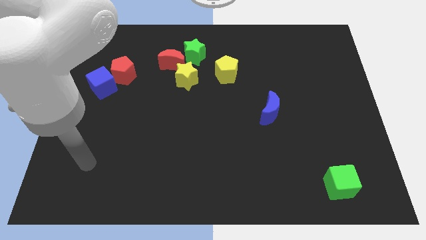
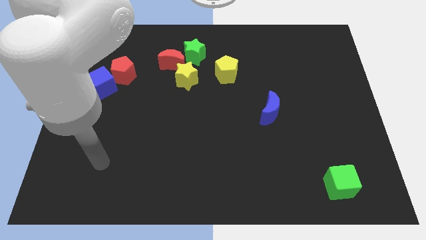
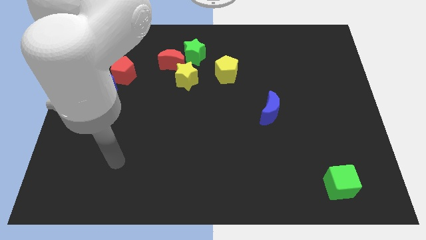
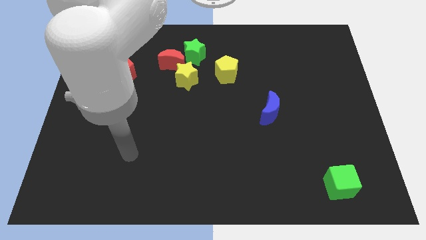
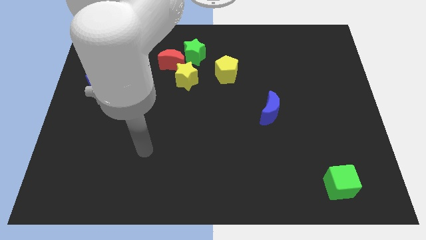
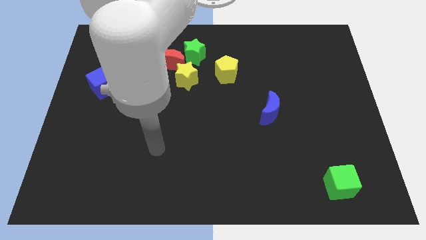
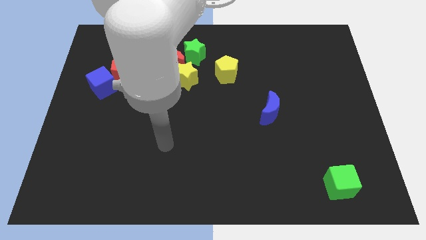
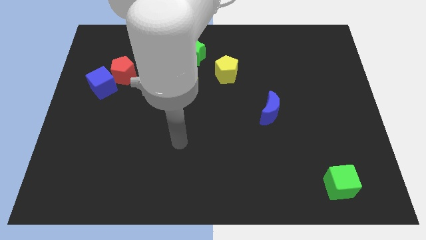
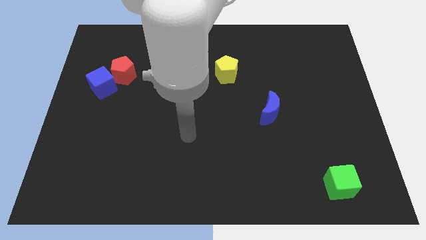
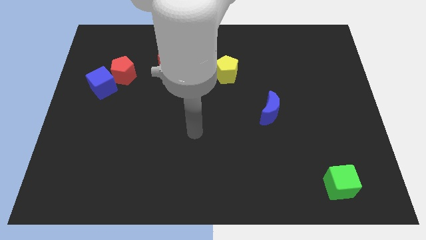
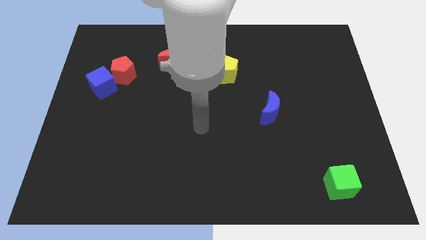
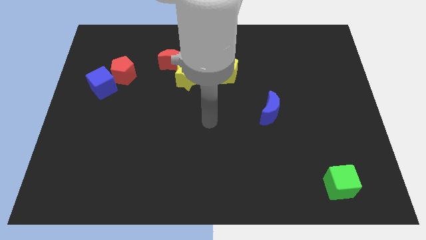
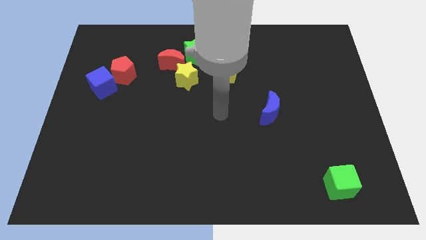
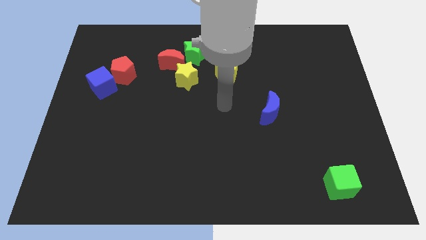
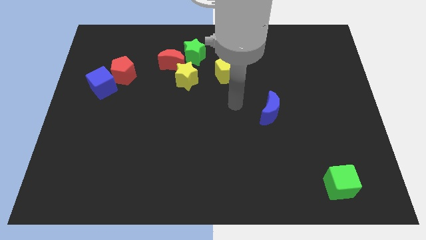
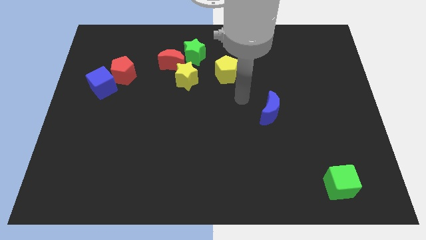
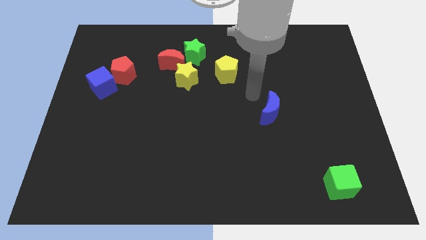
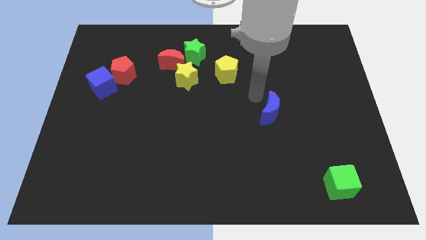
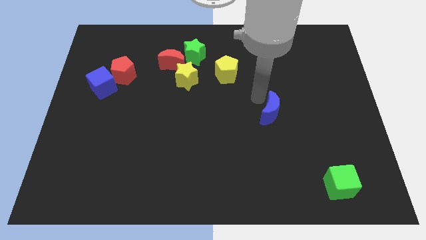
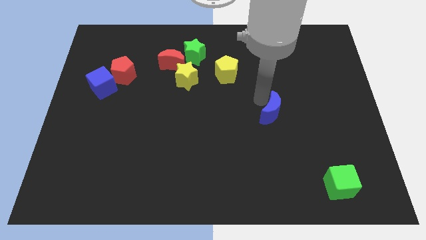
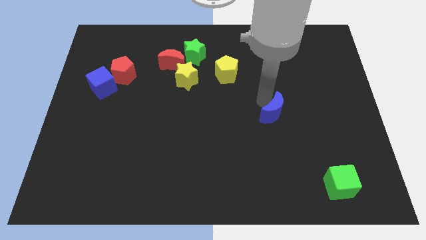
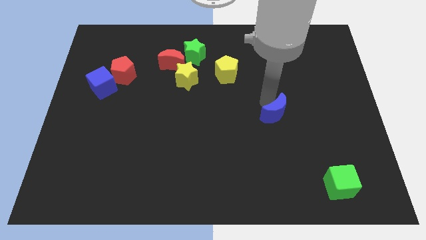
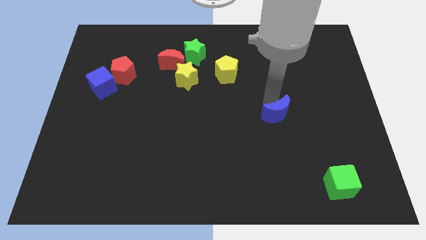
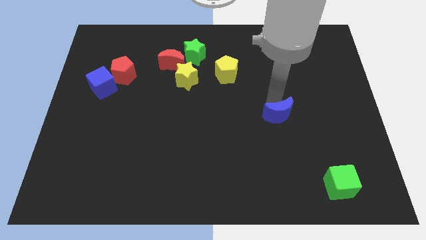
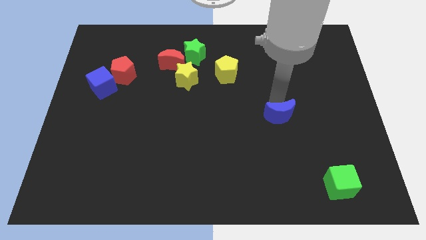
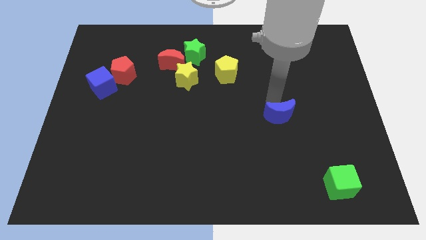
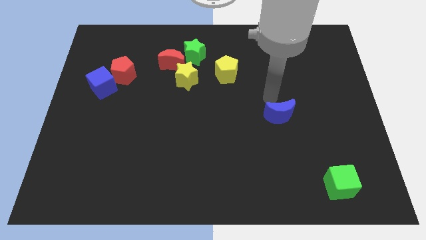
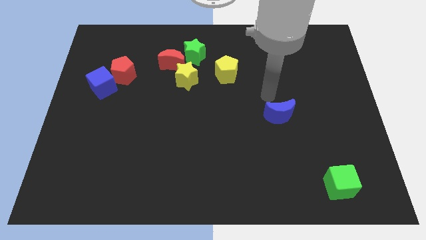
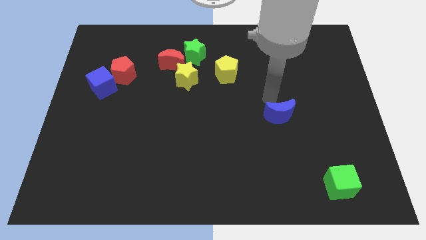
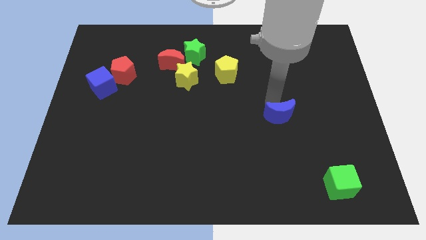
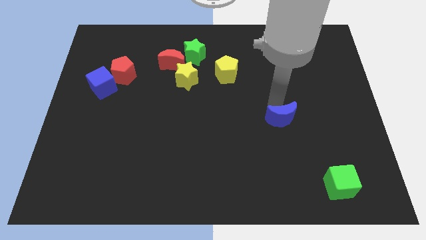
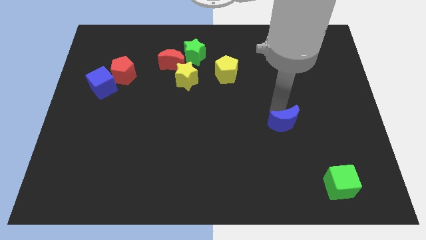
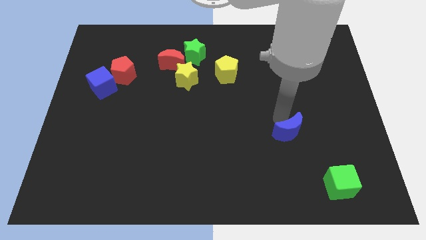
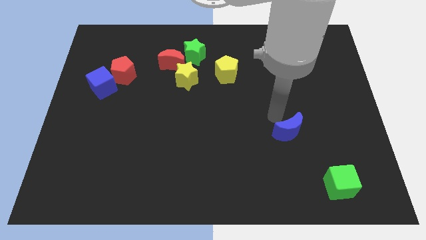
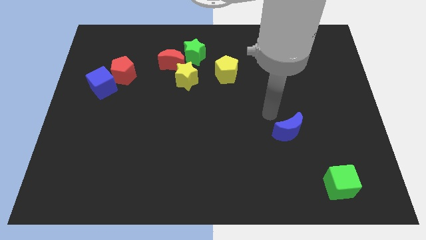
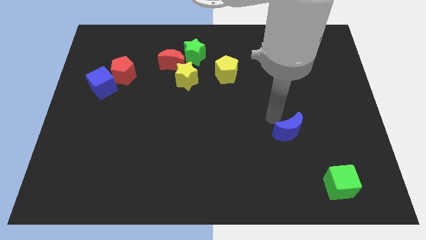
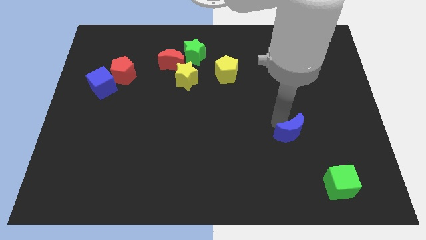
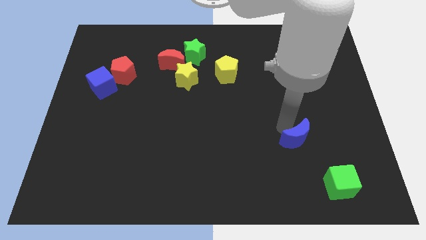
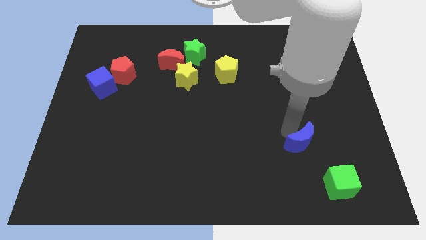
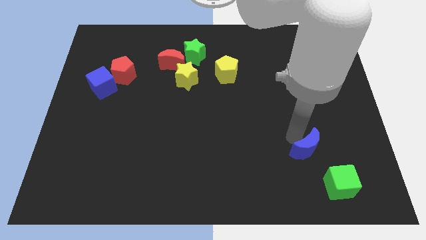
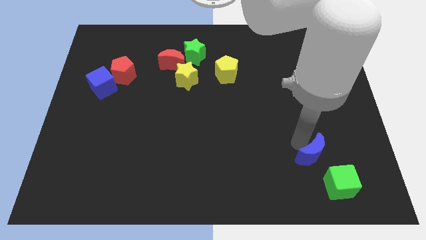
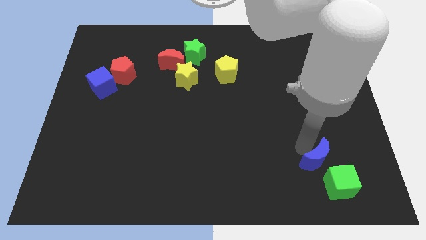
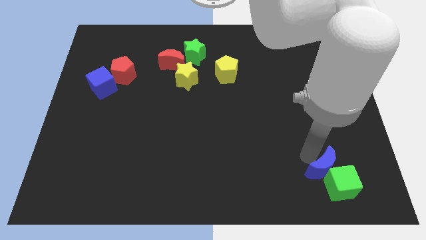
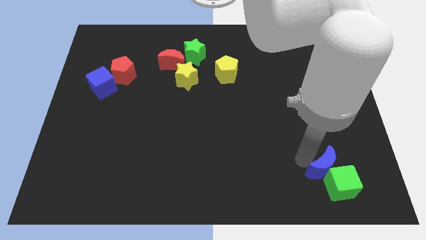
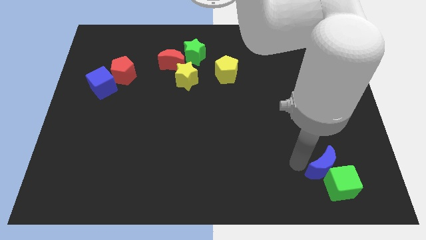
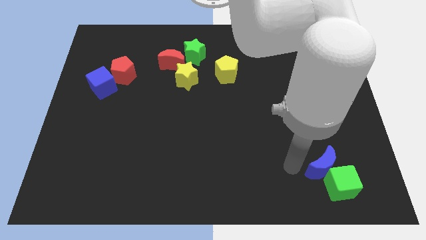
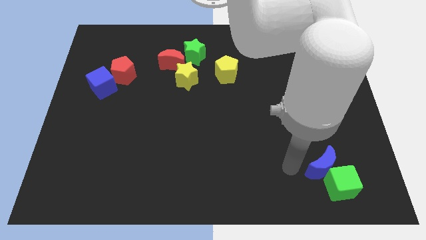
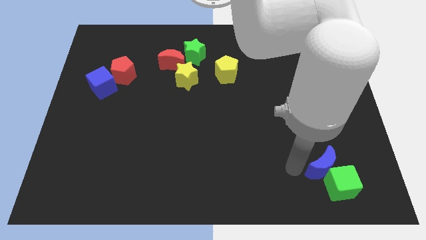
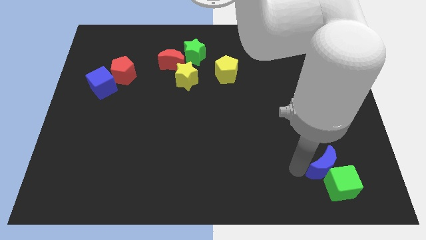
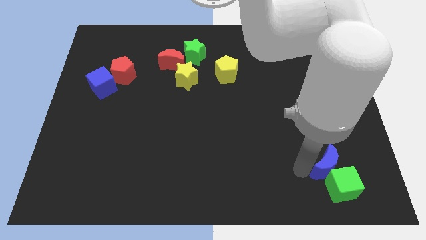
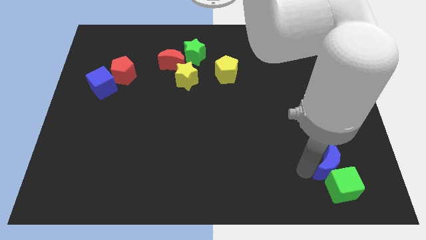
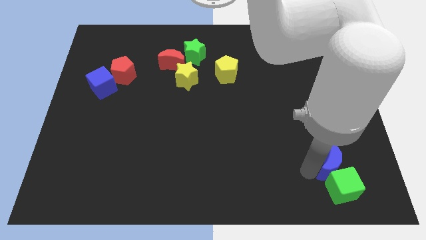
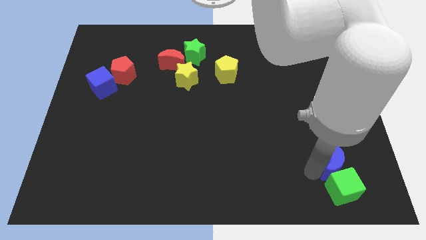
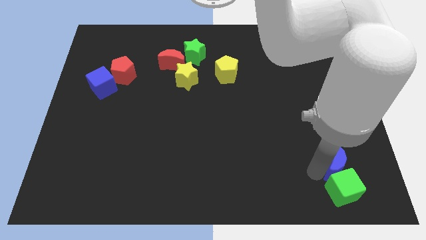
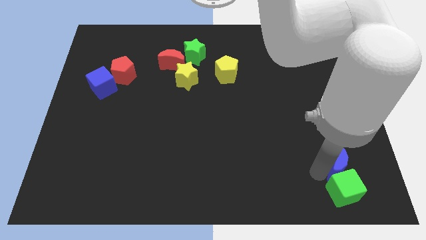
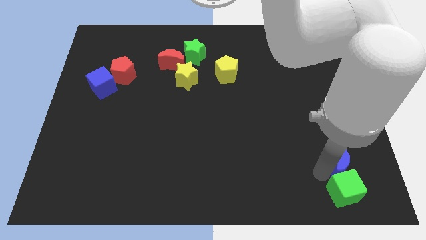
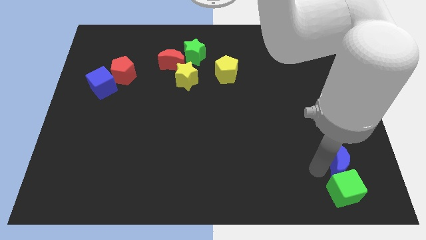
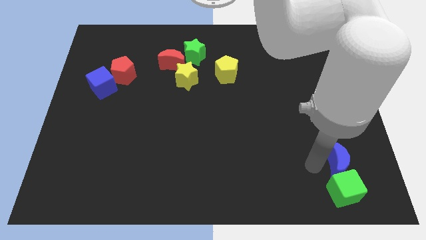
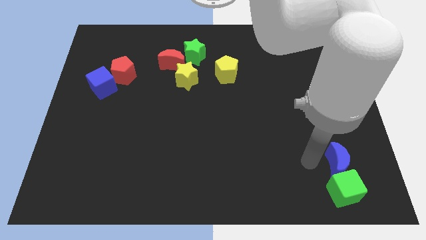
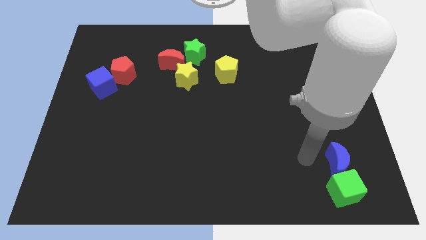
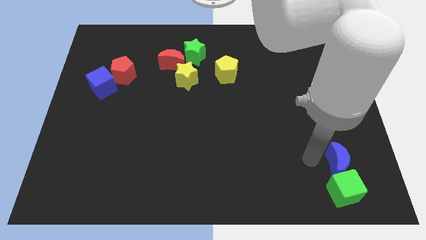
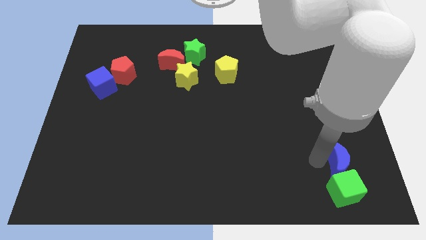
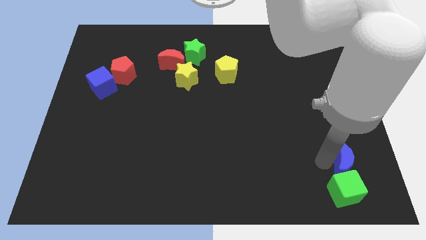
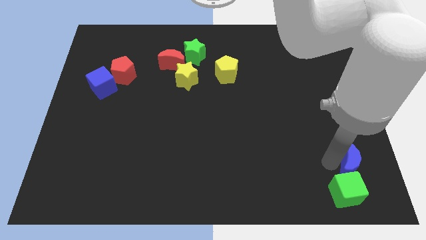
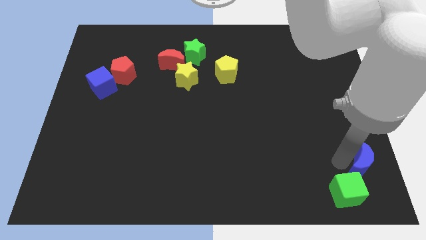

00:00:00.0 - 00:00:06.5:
put the blue moon to the bottom right of the board

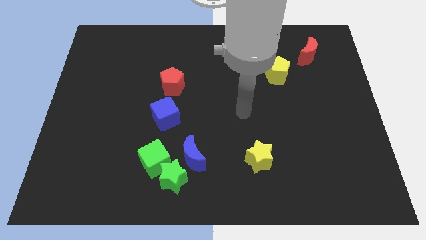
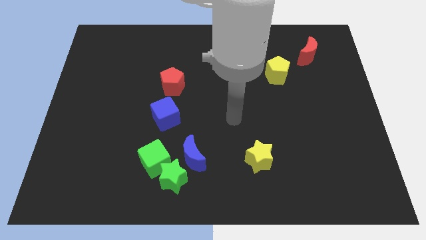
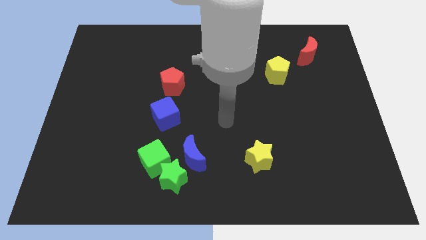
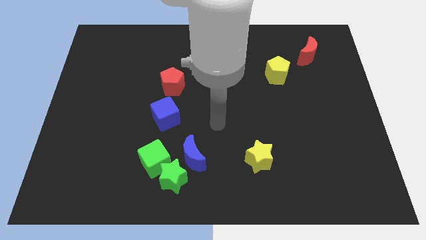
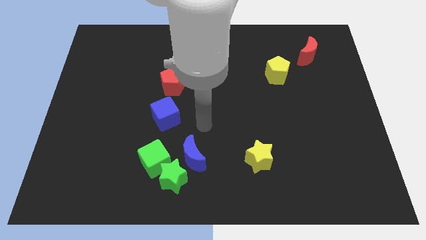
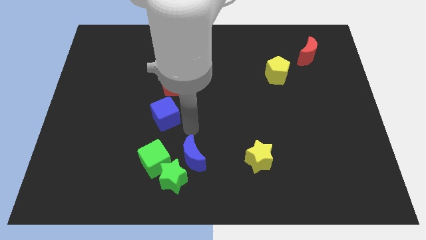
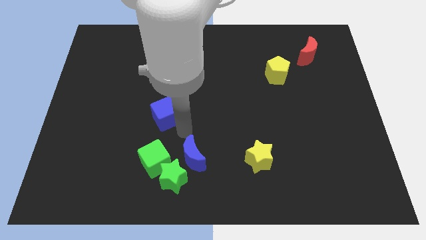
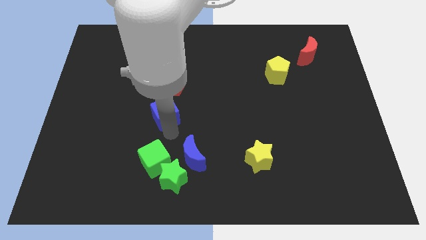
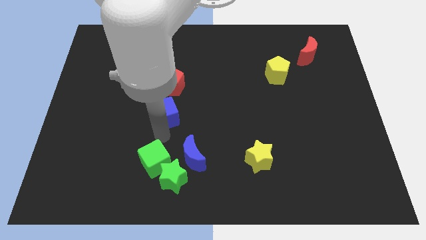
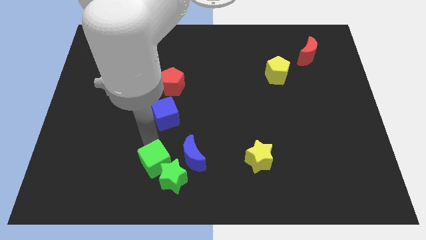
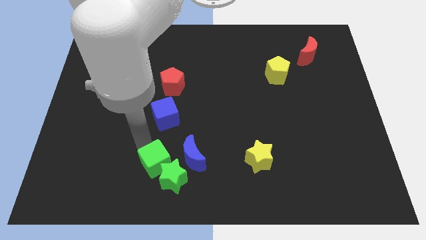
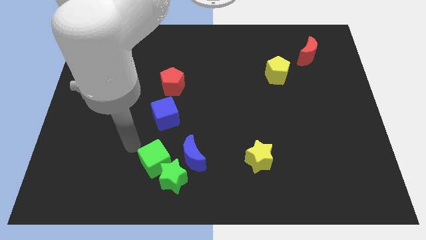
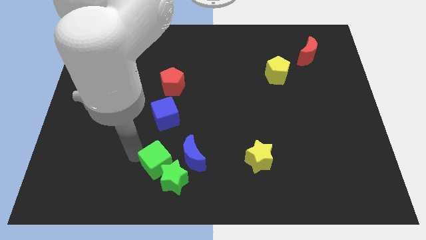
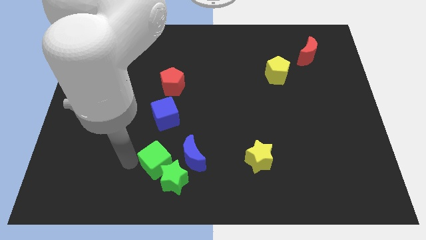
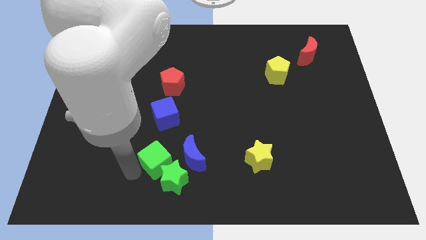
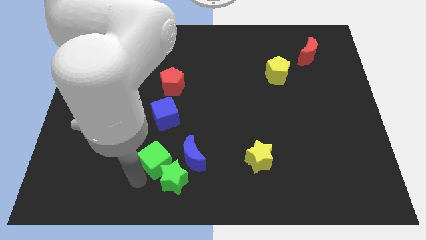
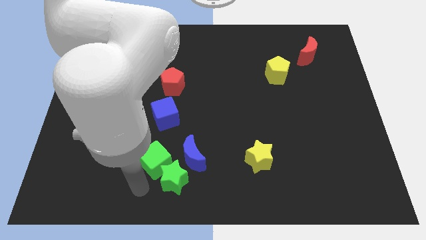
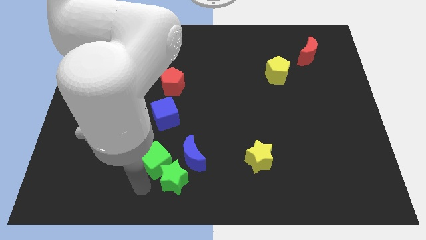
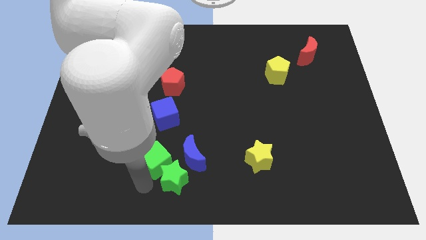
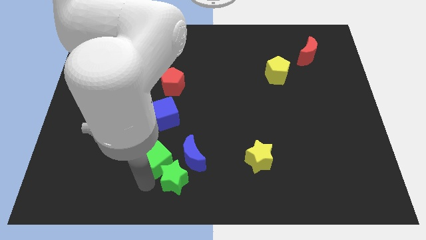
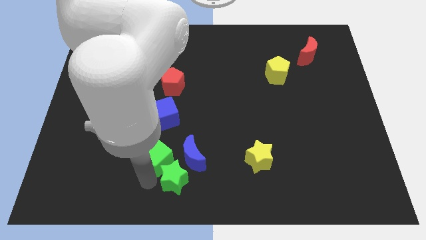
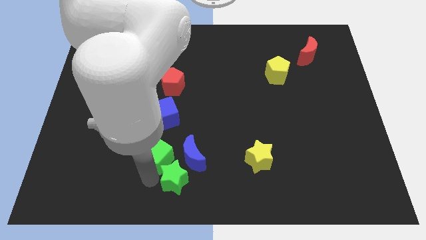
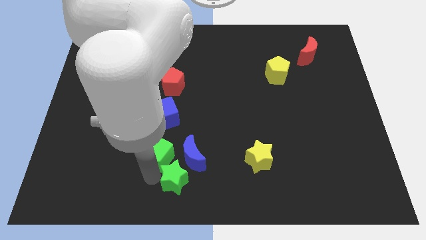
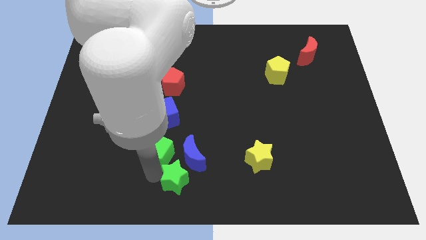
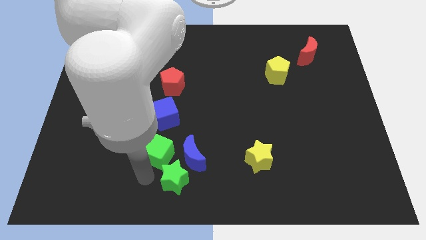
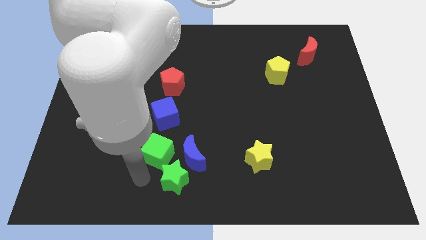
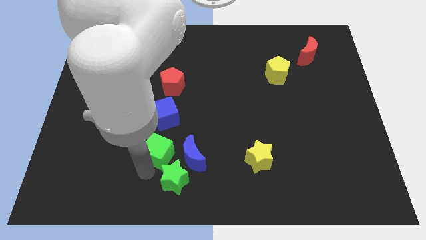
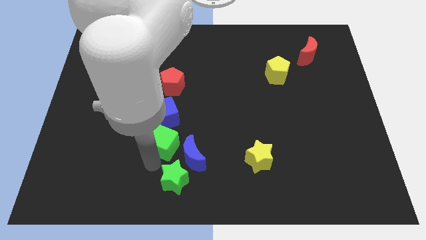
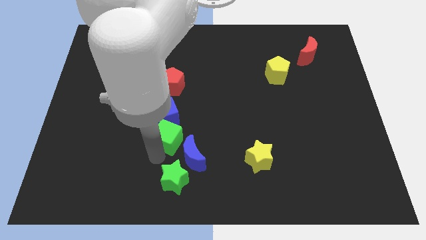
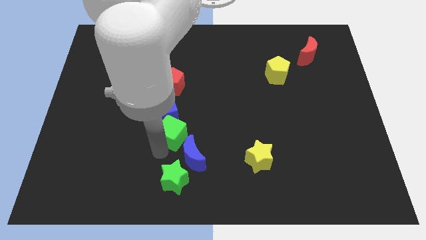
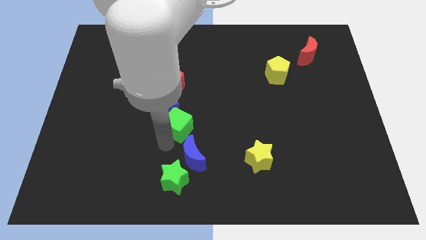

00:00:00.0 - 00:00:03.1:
push the green cube to the center of the board
